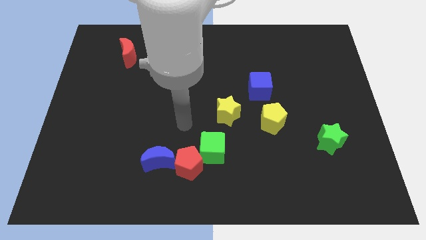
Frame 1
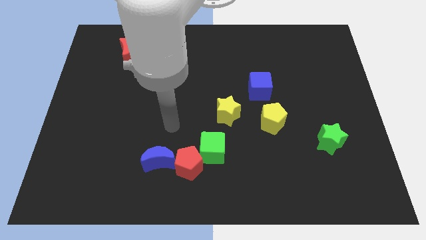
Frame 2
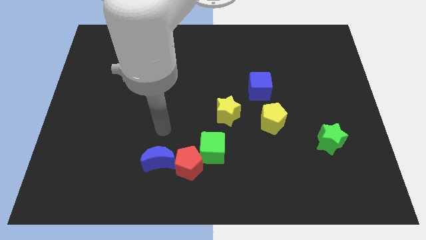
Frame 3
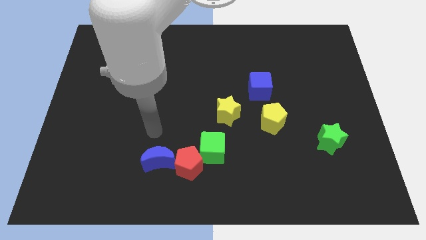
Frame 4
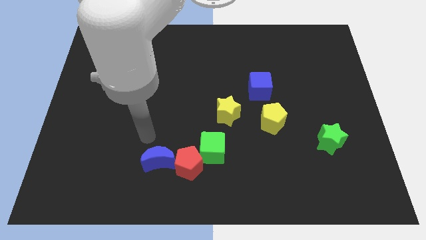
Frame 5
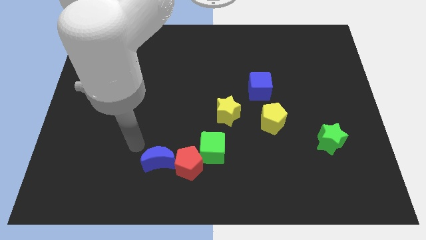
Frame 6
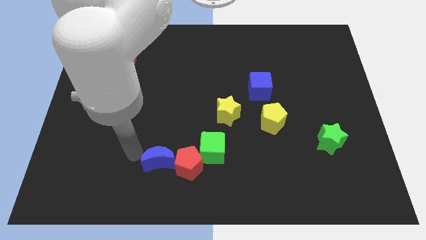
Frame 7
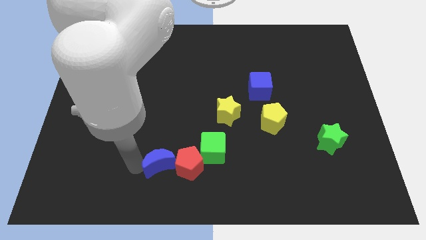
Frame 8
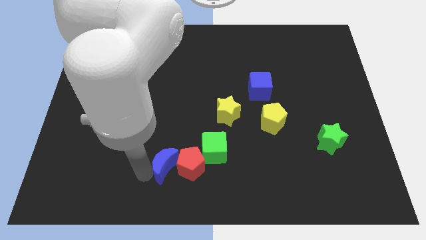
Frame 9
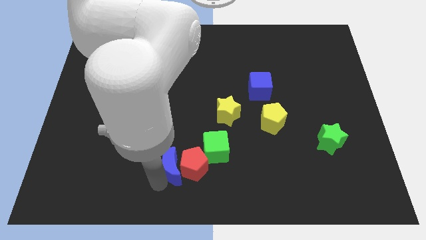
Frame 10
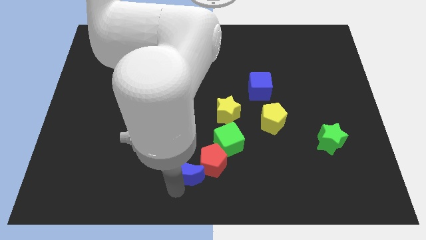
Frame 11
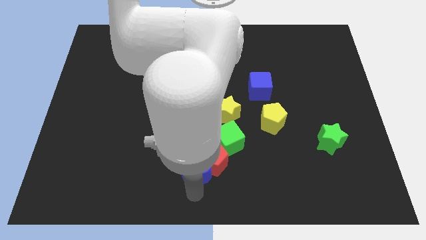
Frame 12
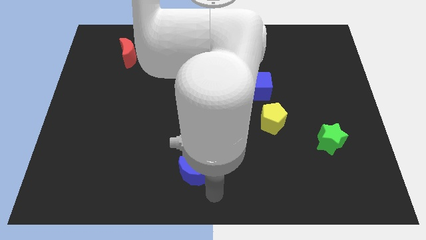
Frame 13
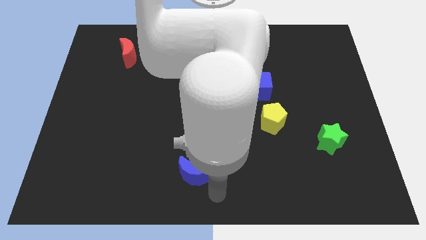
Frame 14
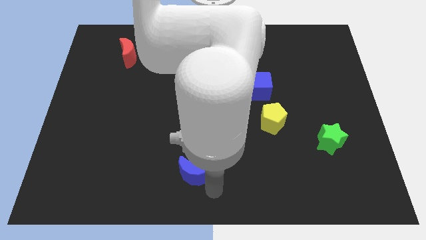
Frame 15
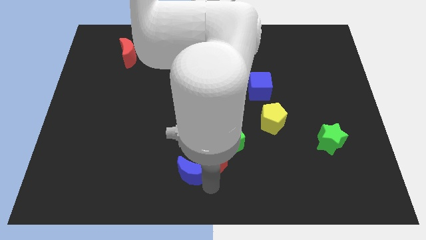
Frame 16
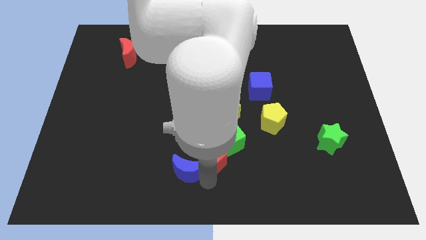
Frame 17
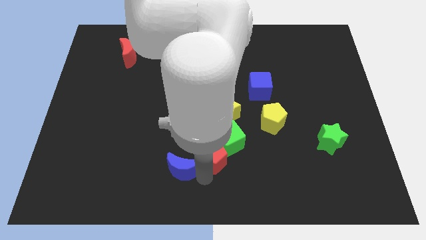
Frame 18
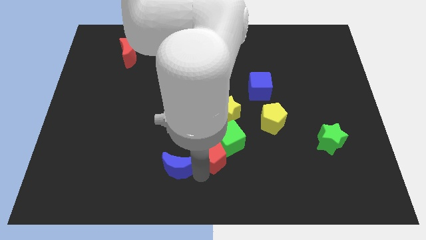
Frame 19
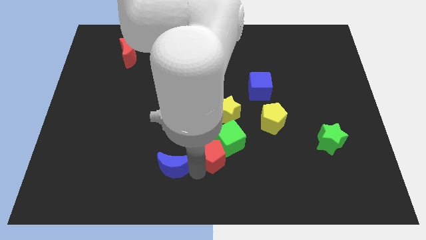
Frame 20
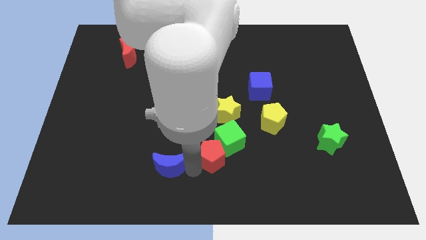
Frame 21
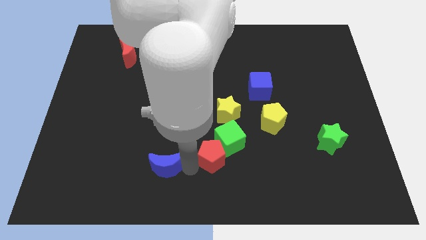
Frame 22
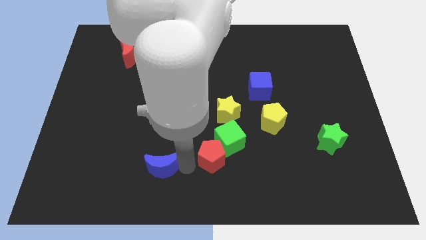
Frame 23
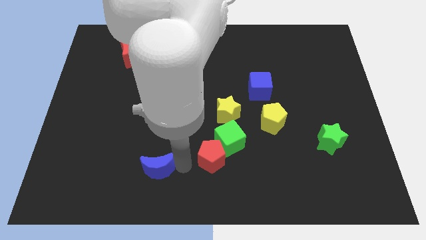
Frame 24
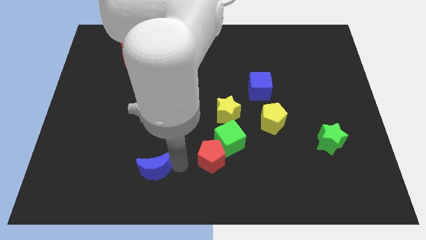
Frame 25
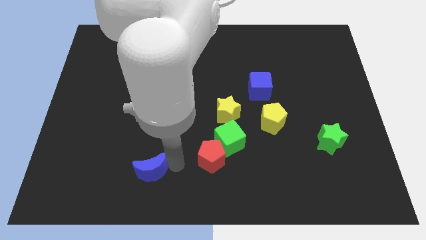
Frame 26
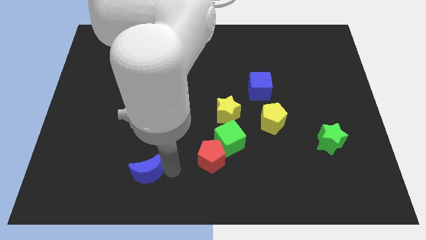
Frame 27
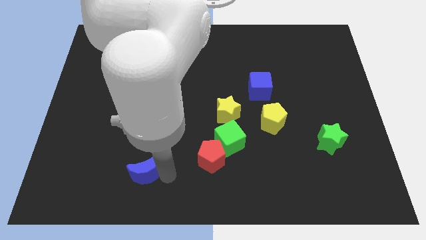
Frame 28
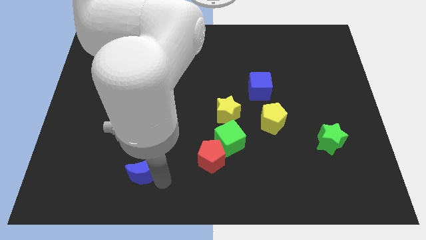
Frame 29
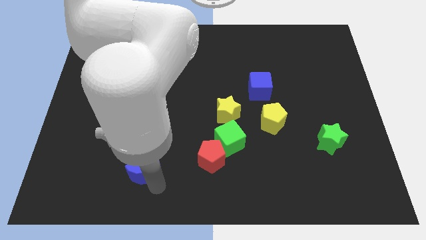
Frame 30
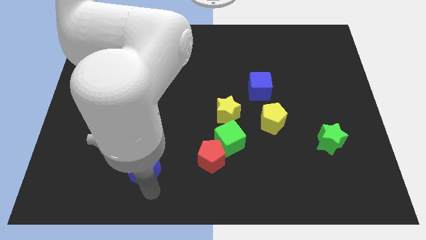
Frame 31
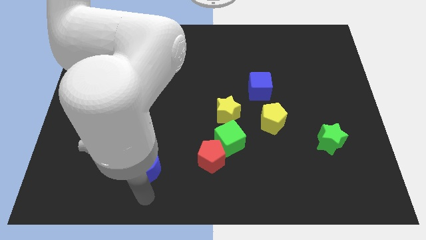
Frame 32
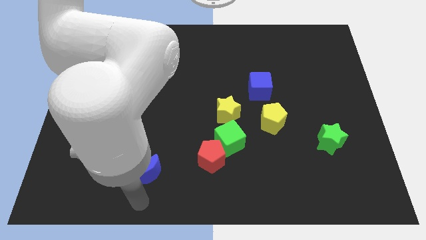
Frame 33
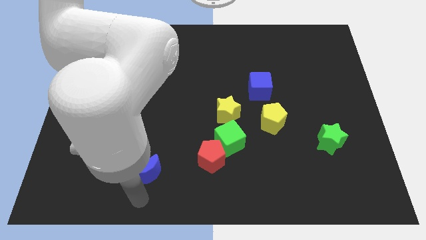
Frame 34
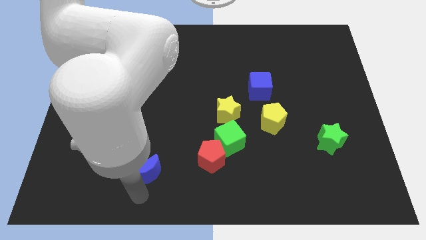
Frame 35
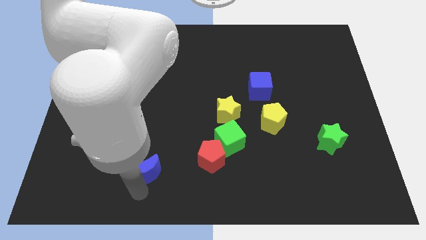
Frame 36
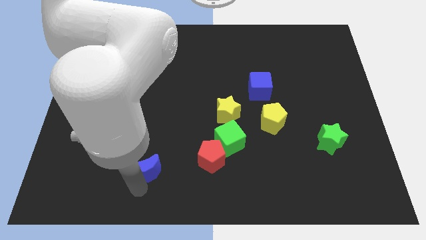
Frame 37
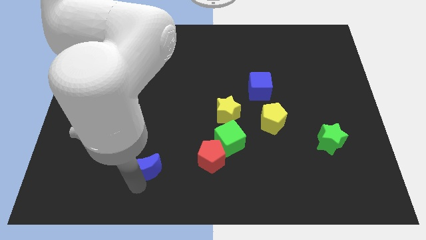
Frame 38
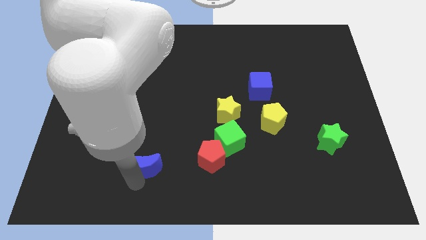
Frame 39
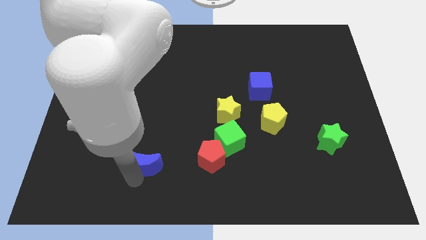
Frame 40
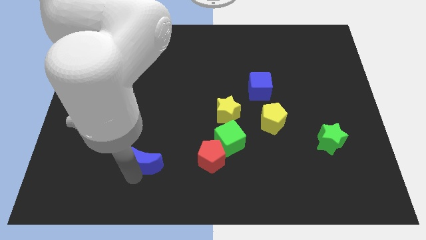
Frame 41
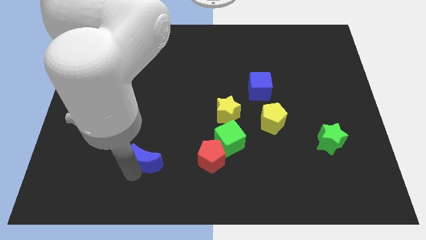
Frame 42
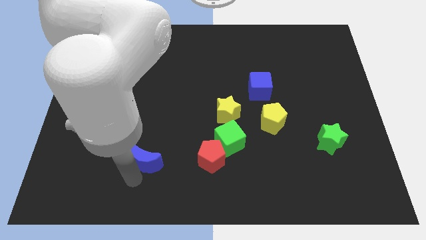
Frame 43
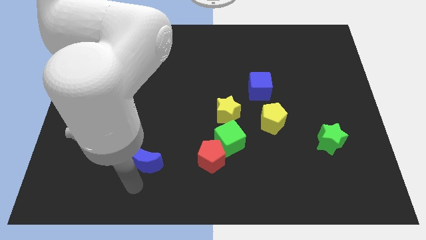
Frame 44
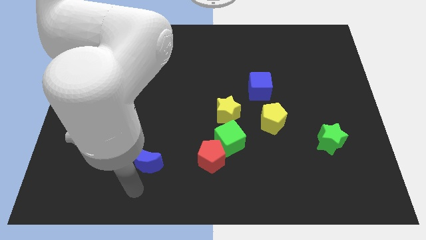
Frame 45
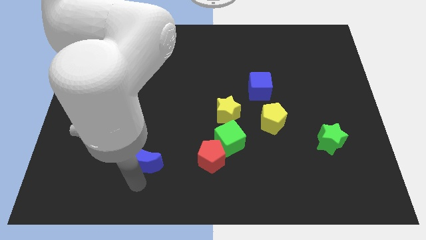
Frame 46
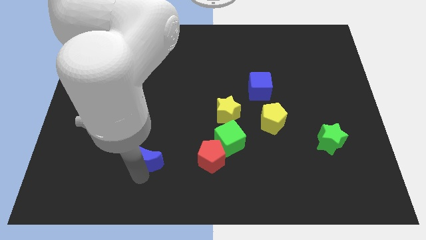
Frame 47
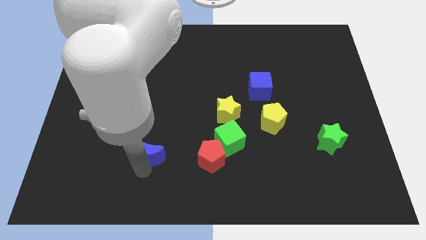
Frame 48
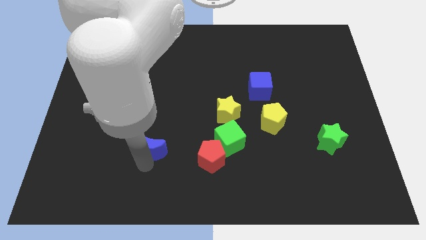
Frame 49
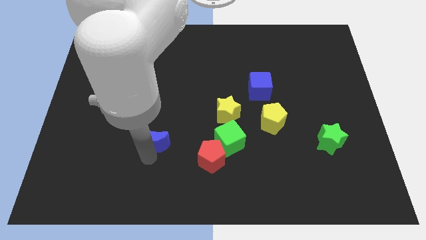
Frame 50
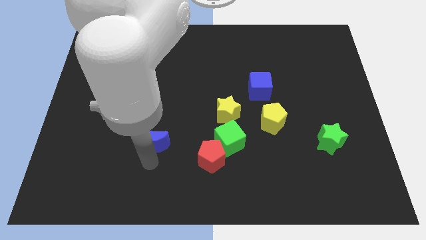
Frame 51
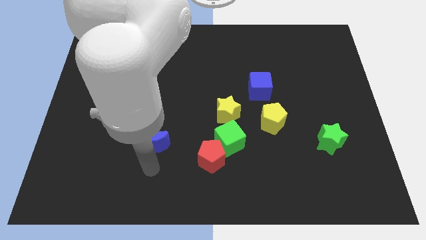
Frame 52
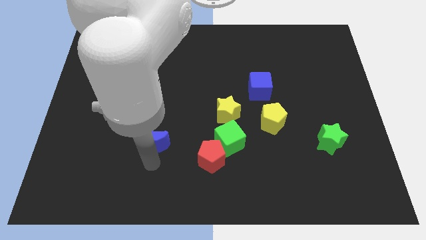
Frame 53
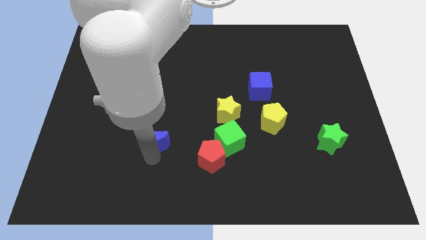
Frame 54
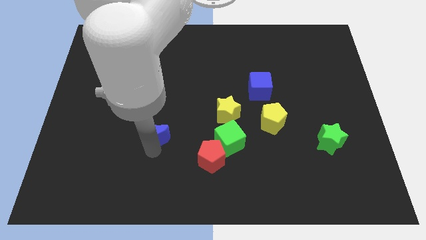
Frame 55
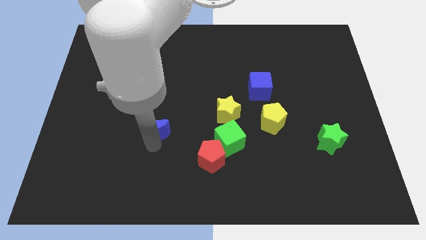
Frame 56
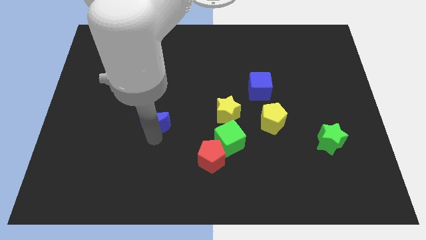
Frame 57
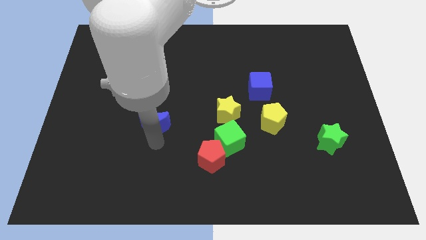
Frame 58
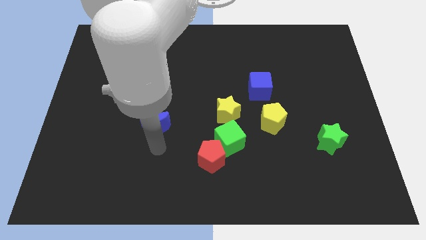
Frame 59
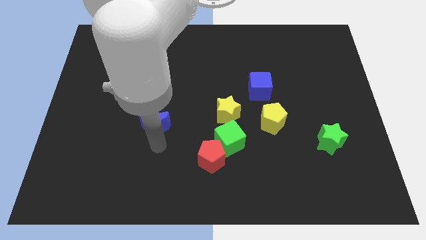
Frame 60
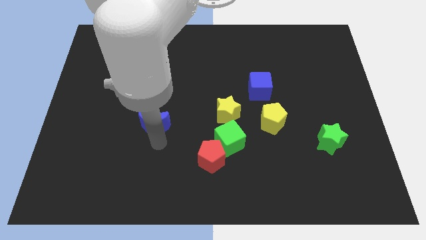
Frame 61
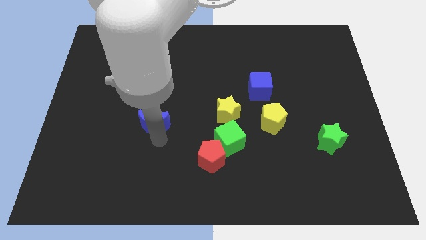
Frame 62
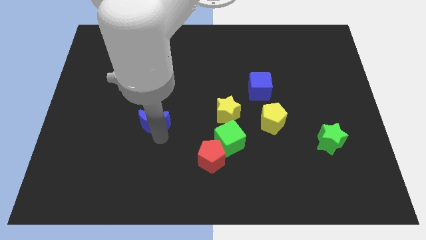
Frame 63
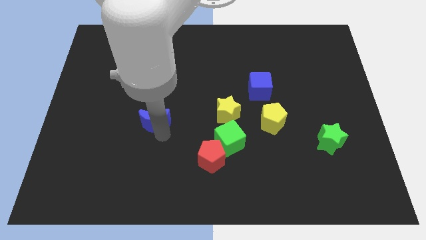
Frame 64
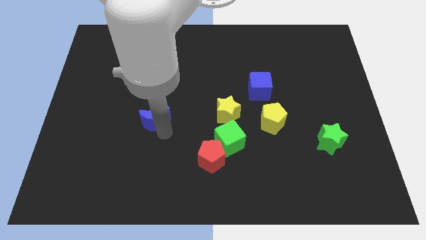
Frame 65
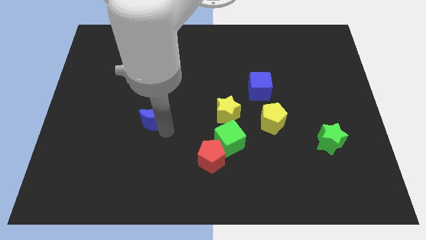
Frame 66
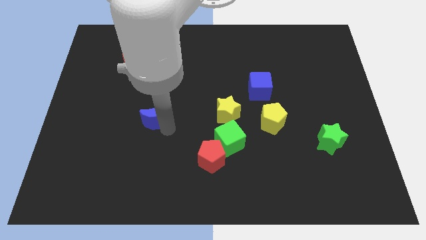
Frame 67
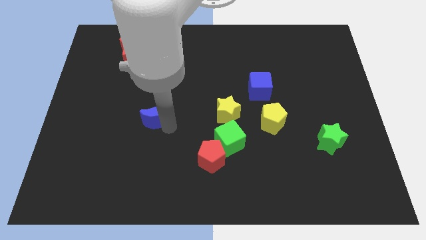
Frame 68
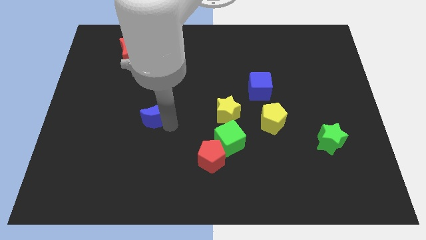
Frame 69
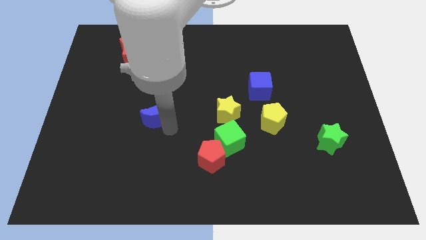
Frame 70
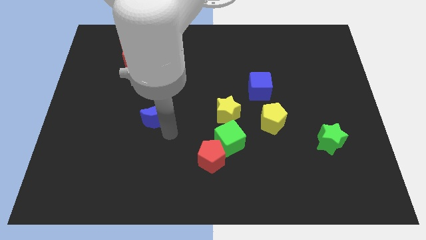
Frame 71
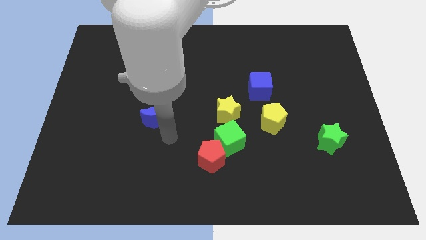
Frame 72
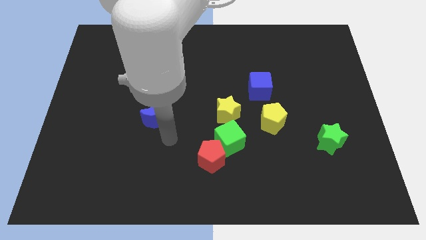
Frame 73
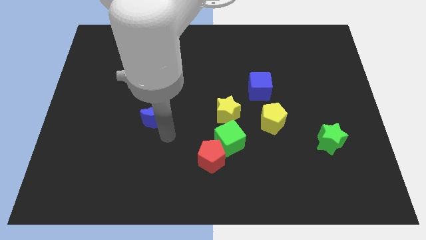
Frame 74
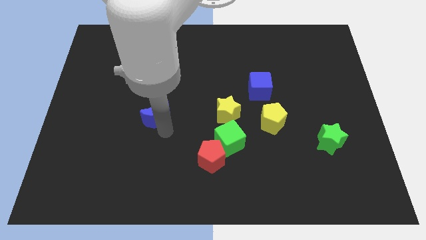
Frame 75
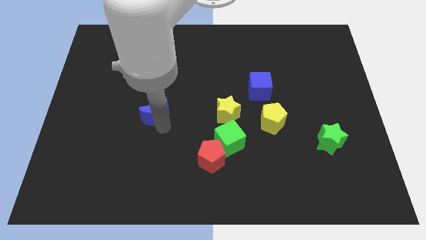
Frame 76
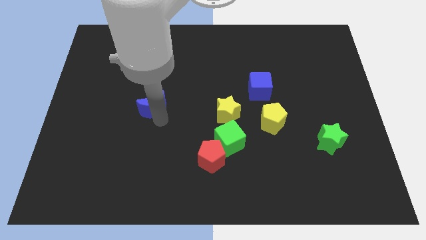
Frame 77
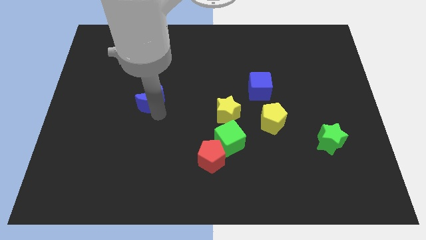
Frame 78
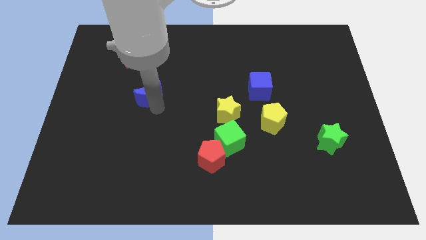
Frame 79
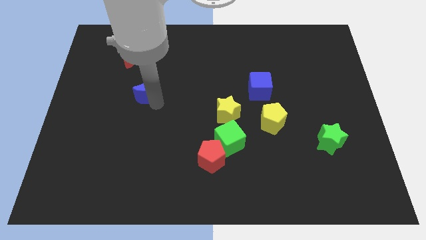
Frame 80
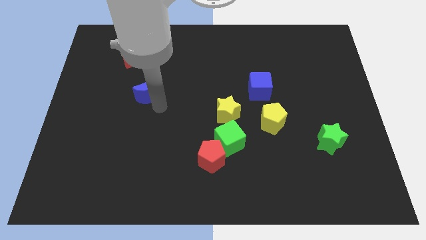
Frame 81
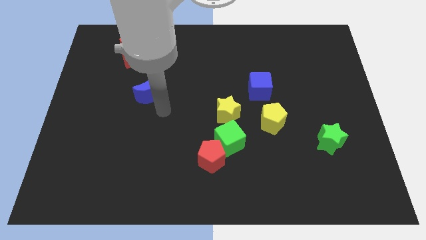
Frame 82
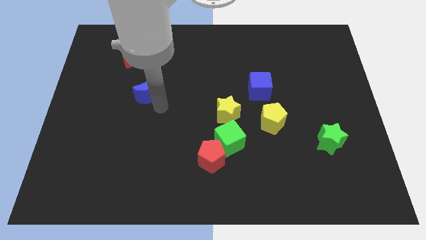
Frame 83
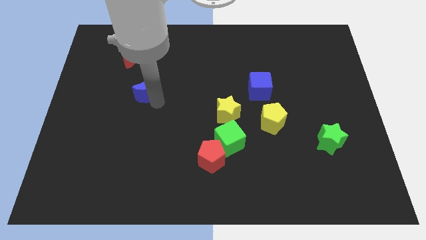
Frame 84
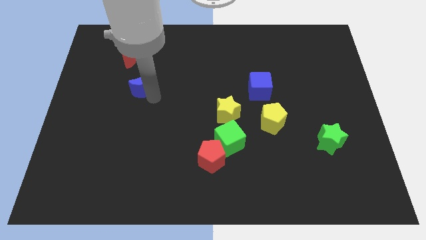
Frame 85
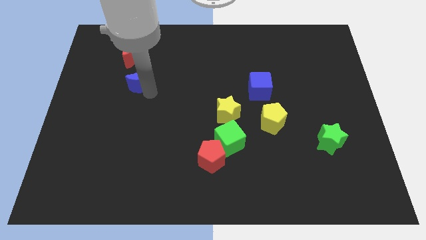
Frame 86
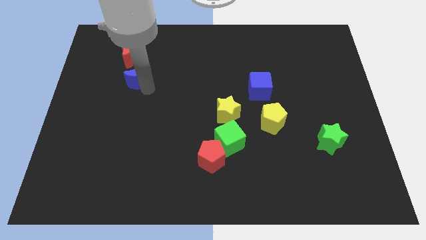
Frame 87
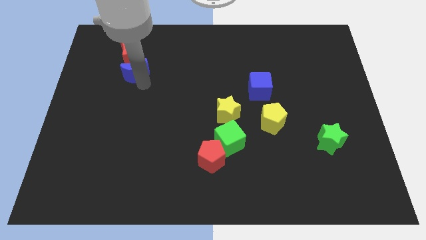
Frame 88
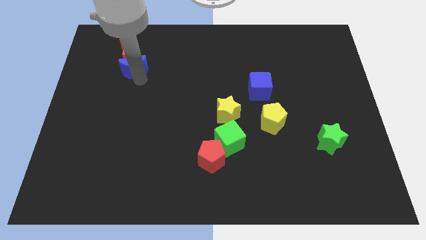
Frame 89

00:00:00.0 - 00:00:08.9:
push the blue moon towards the red moon
